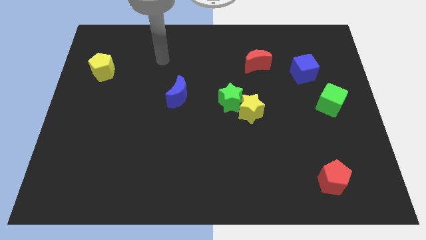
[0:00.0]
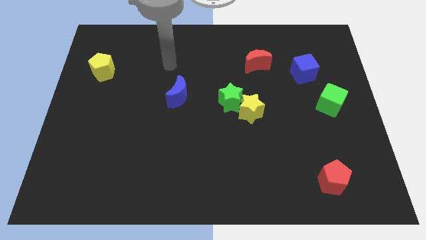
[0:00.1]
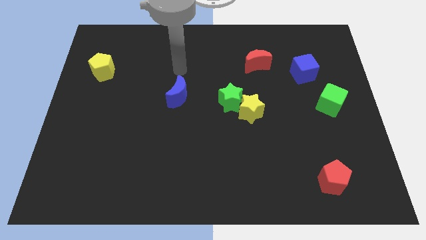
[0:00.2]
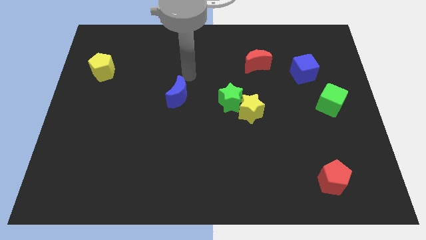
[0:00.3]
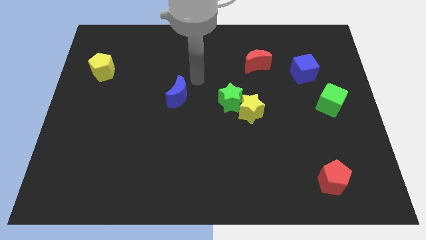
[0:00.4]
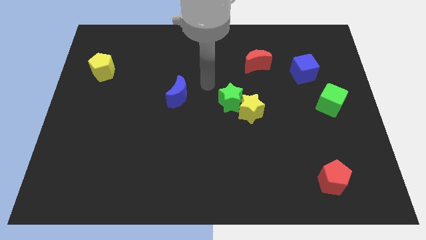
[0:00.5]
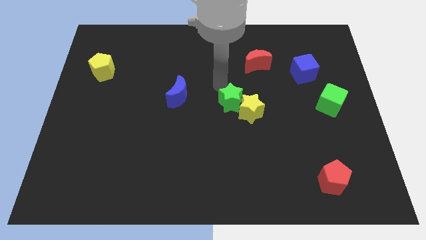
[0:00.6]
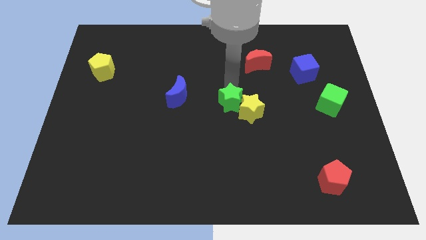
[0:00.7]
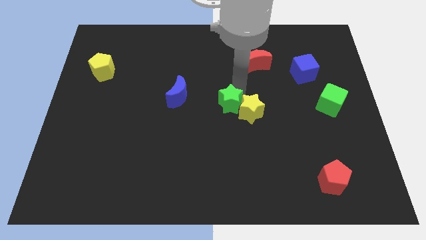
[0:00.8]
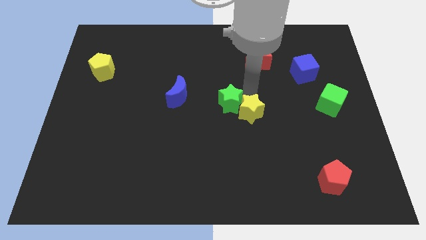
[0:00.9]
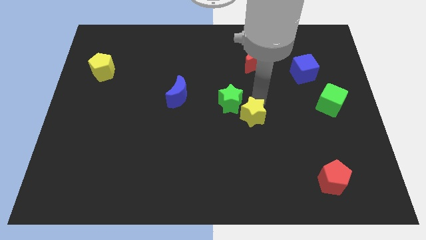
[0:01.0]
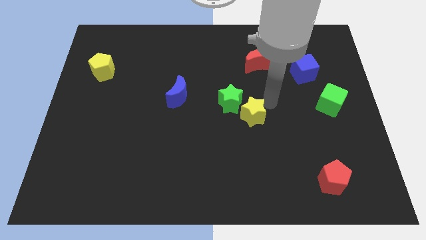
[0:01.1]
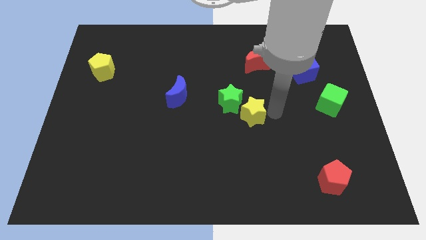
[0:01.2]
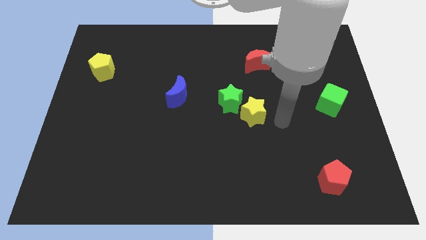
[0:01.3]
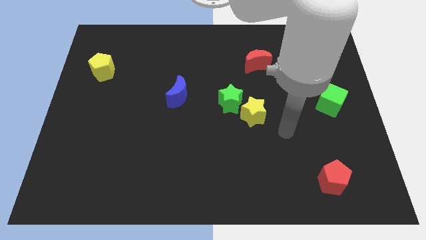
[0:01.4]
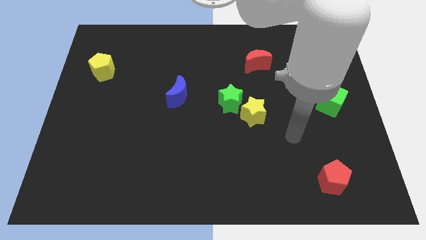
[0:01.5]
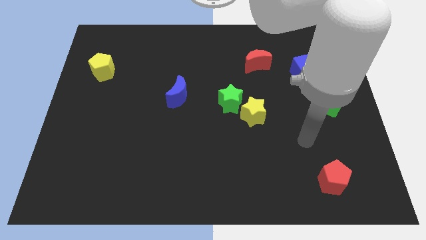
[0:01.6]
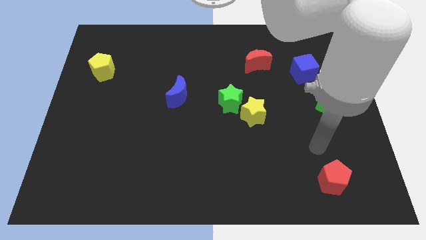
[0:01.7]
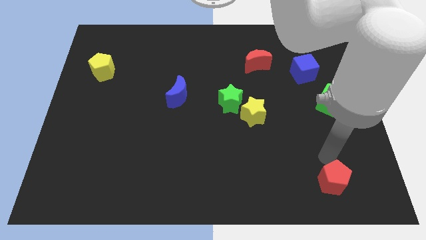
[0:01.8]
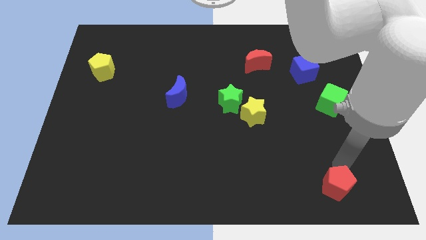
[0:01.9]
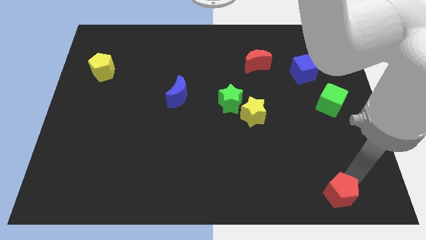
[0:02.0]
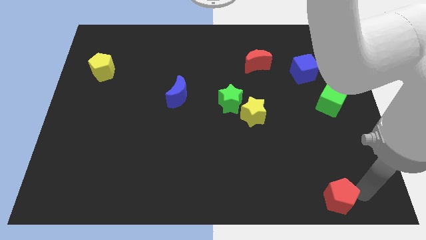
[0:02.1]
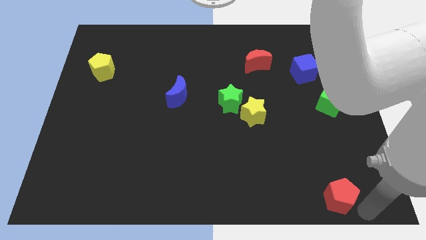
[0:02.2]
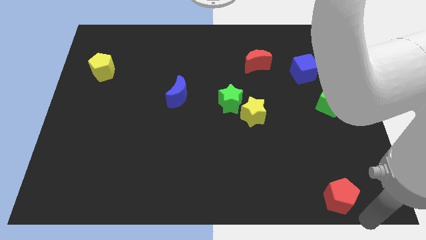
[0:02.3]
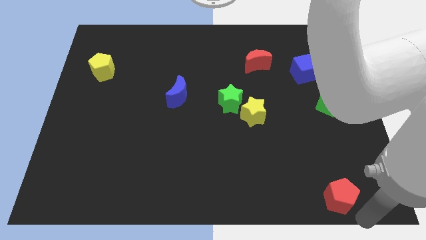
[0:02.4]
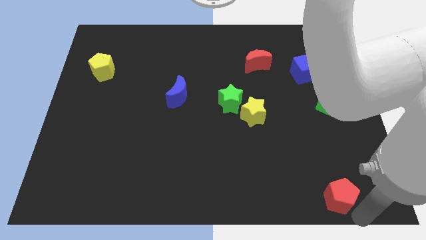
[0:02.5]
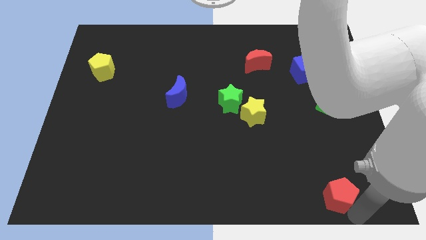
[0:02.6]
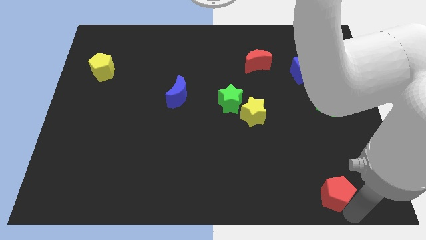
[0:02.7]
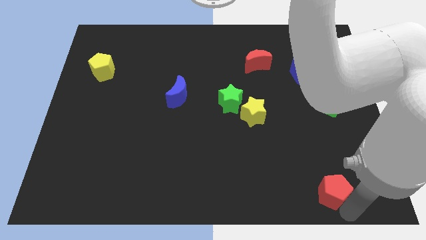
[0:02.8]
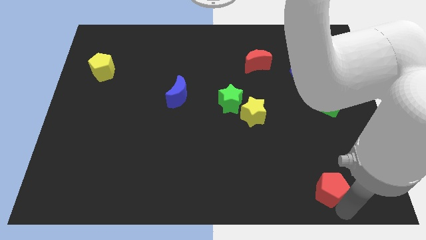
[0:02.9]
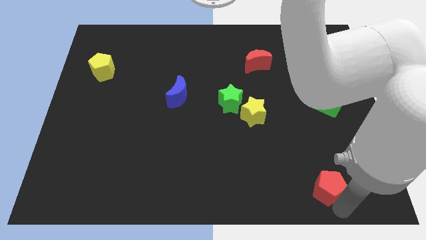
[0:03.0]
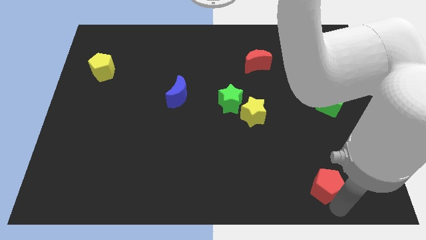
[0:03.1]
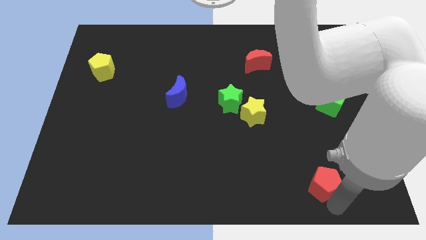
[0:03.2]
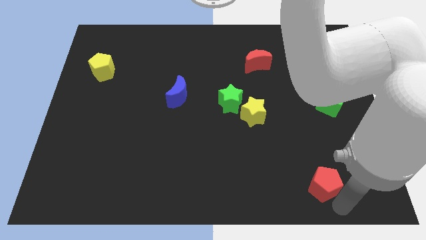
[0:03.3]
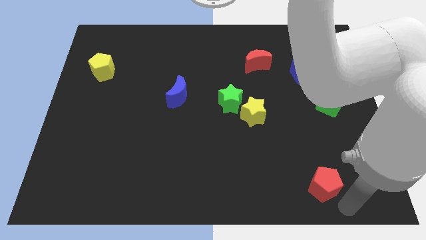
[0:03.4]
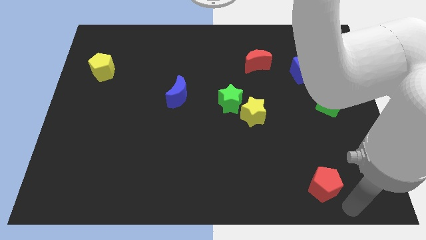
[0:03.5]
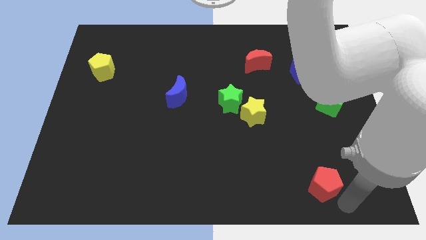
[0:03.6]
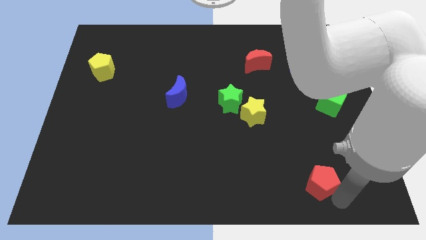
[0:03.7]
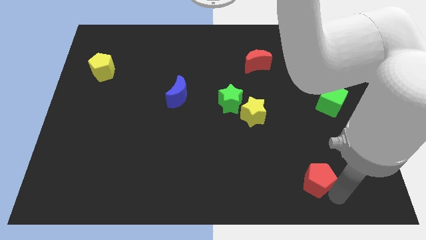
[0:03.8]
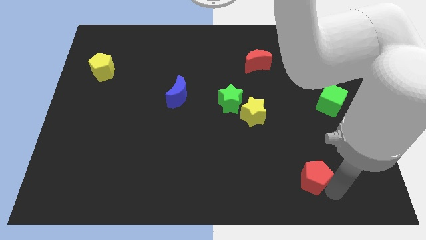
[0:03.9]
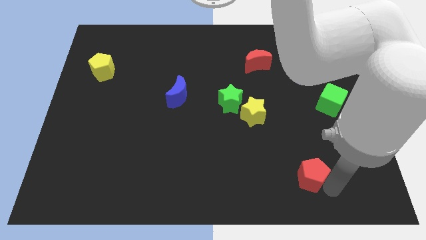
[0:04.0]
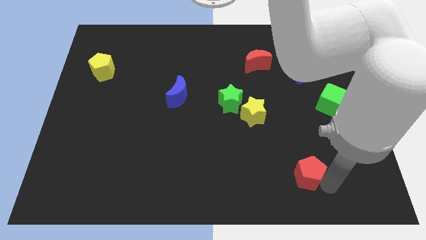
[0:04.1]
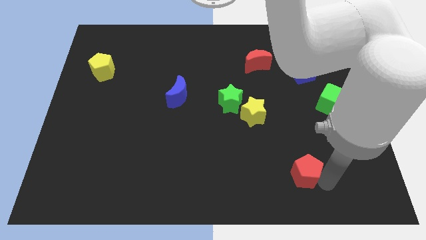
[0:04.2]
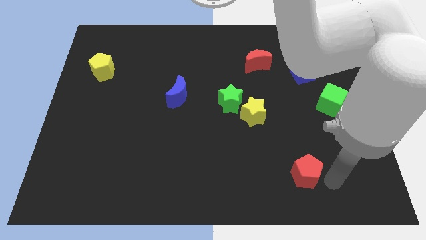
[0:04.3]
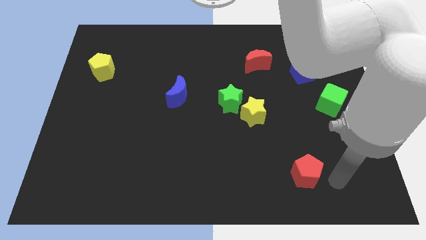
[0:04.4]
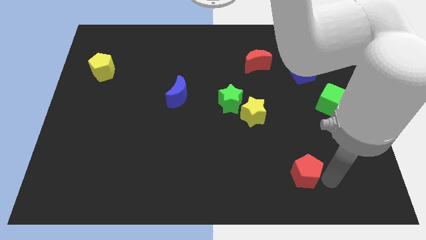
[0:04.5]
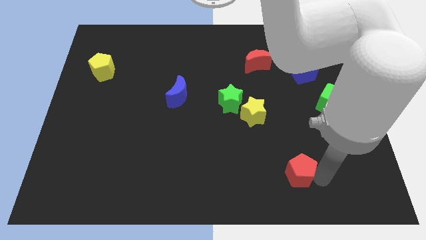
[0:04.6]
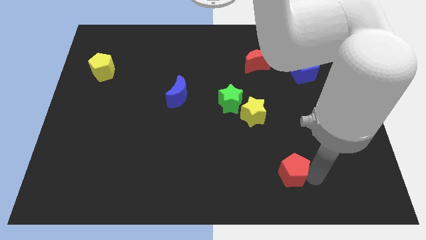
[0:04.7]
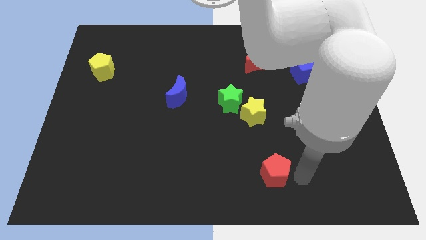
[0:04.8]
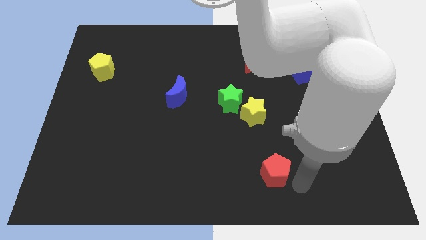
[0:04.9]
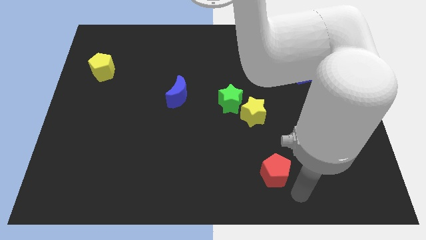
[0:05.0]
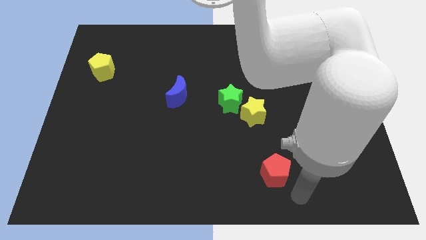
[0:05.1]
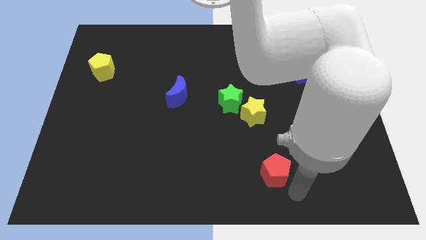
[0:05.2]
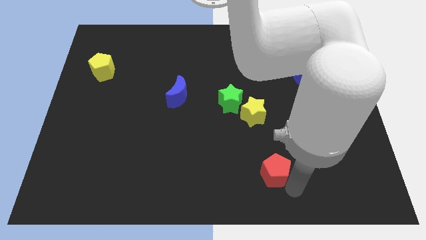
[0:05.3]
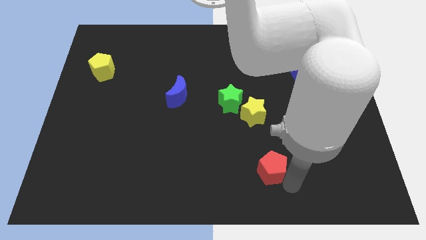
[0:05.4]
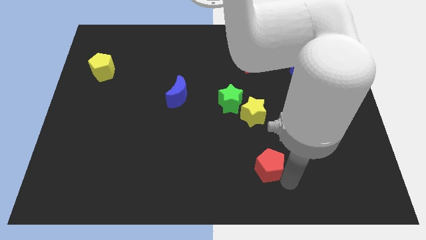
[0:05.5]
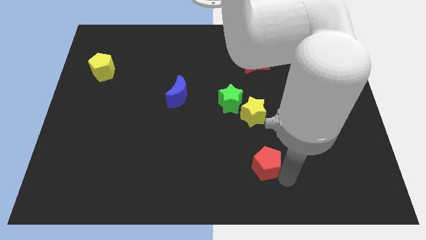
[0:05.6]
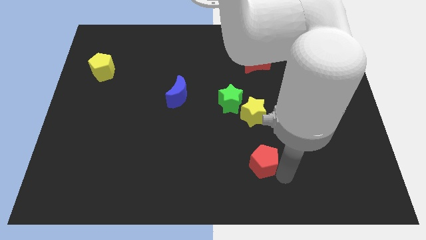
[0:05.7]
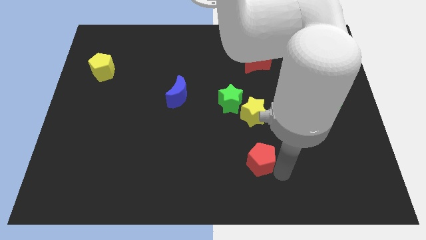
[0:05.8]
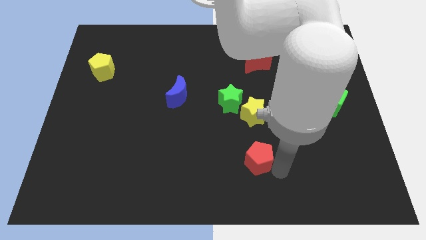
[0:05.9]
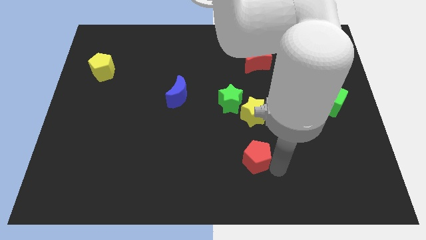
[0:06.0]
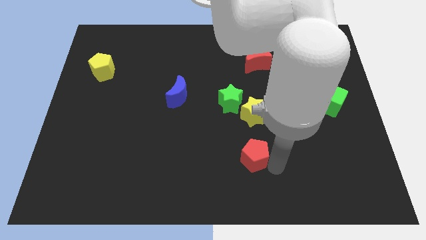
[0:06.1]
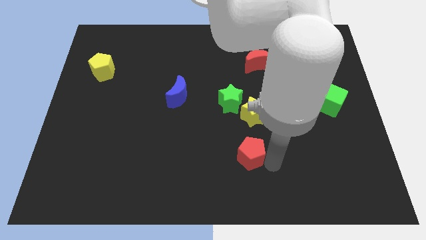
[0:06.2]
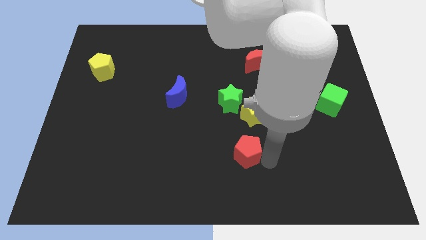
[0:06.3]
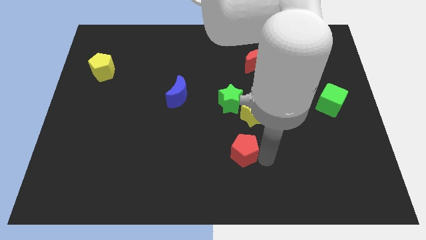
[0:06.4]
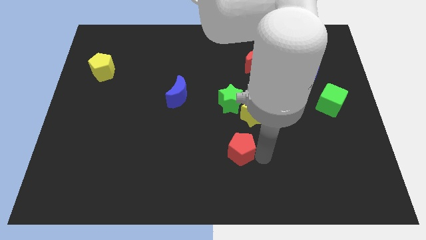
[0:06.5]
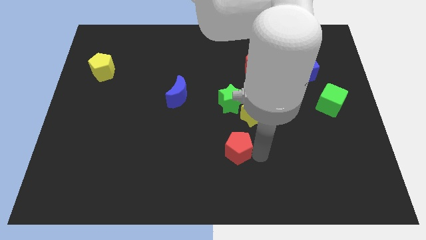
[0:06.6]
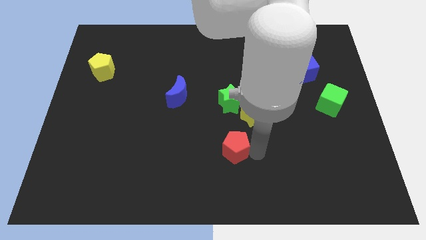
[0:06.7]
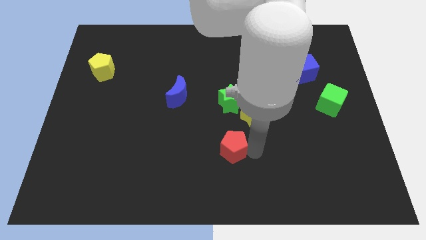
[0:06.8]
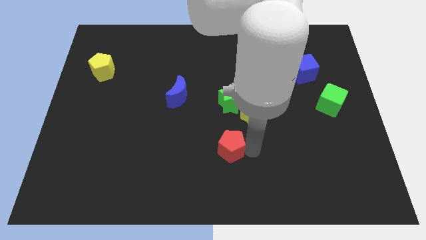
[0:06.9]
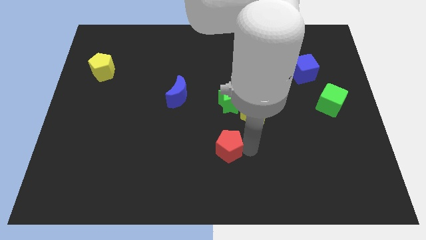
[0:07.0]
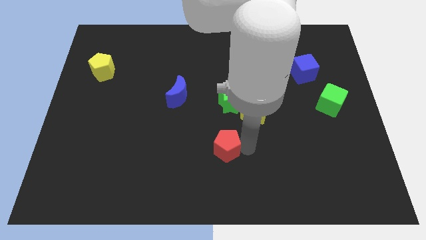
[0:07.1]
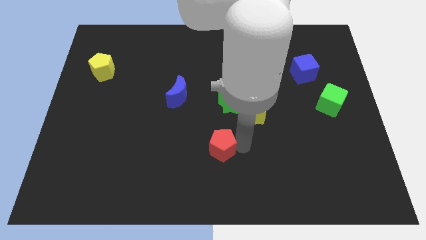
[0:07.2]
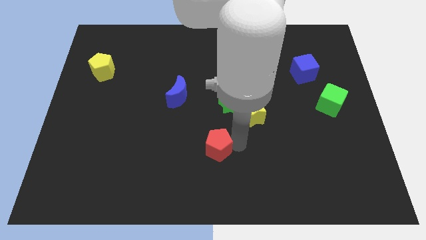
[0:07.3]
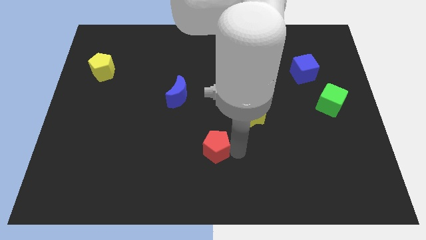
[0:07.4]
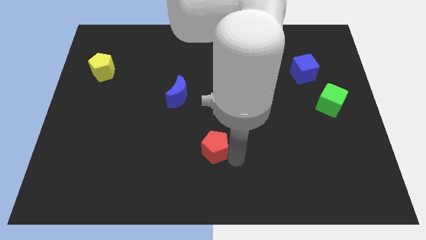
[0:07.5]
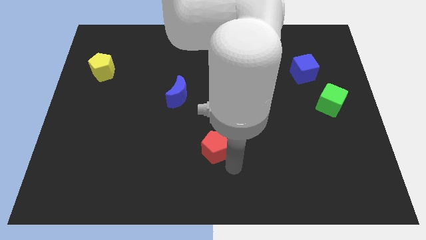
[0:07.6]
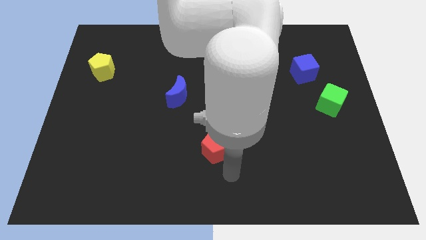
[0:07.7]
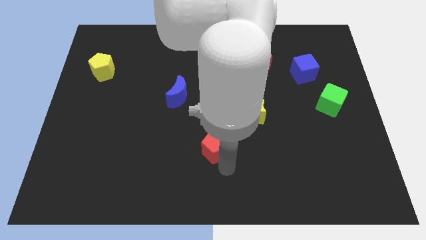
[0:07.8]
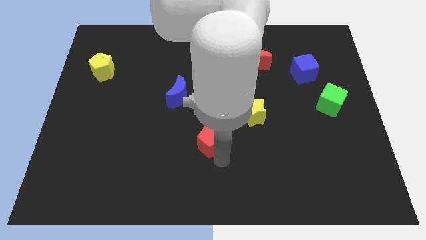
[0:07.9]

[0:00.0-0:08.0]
put the red pentagon to the center of the board
